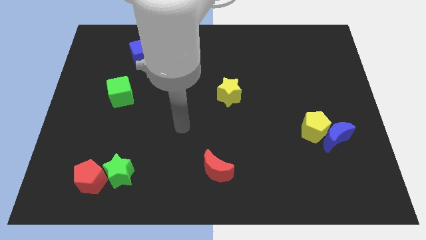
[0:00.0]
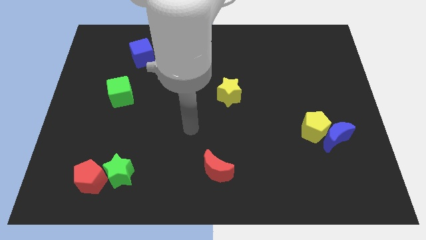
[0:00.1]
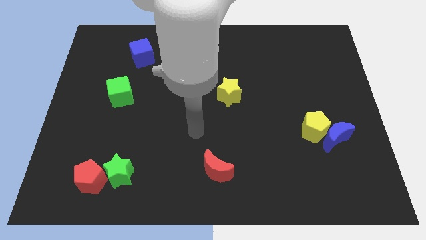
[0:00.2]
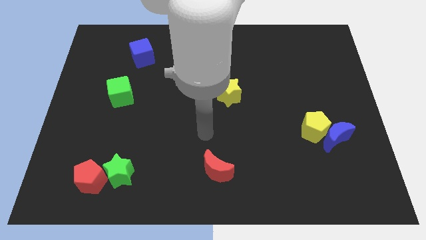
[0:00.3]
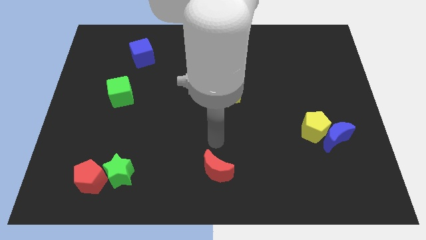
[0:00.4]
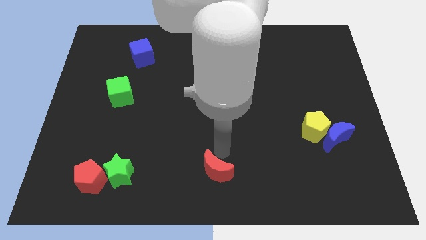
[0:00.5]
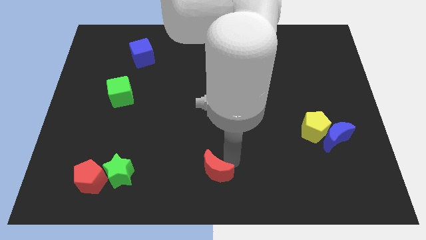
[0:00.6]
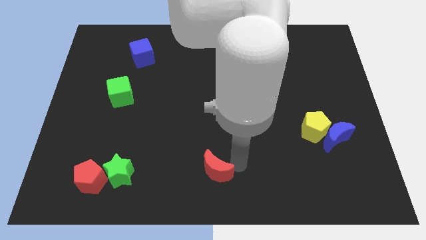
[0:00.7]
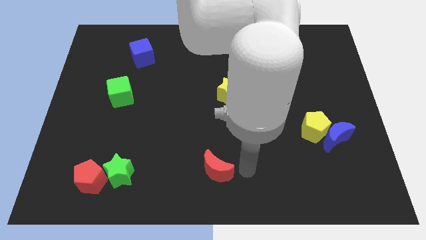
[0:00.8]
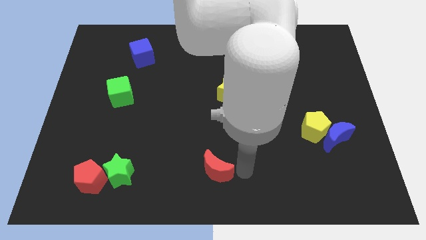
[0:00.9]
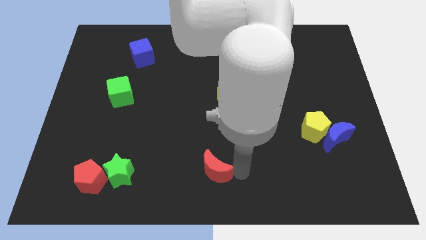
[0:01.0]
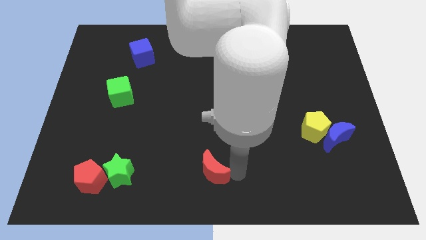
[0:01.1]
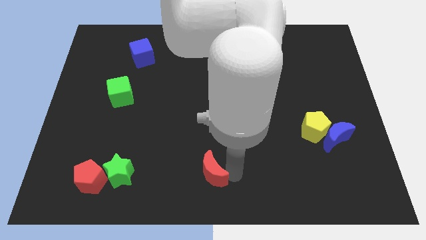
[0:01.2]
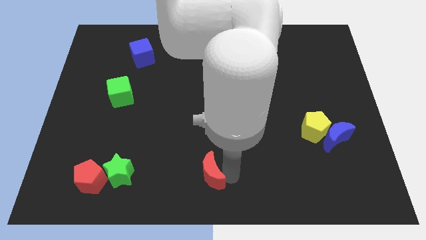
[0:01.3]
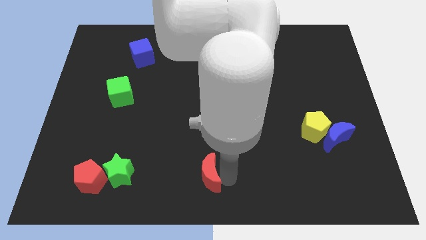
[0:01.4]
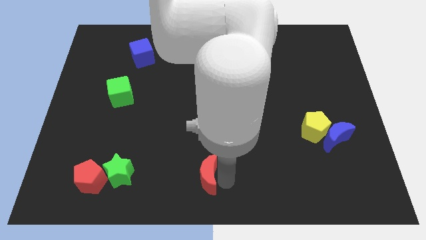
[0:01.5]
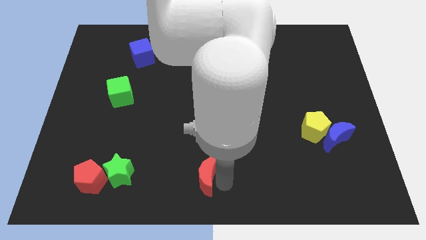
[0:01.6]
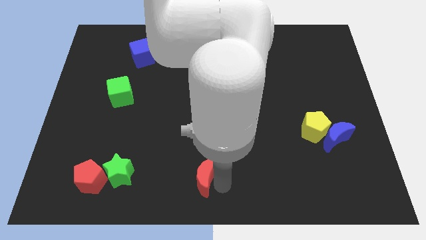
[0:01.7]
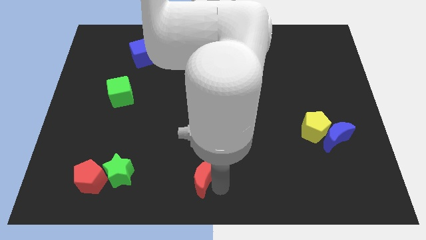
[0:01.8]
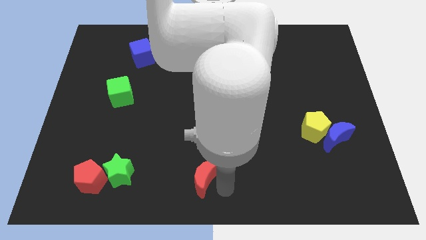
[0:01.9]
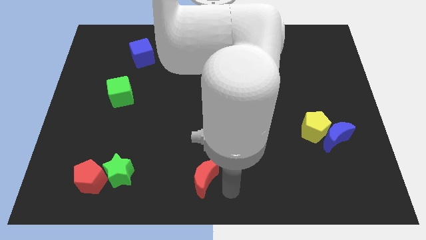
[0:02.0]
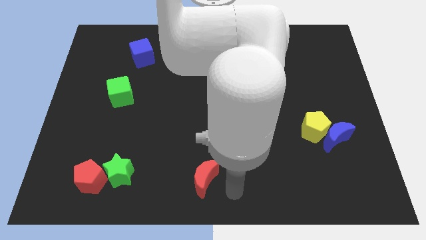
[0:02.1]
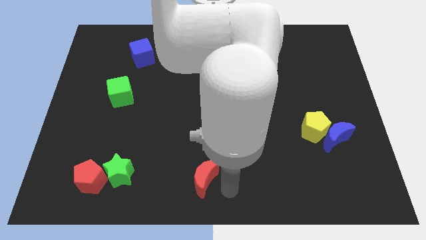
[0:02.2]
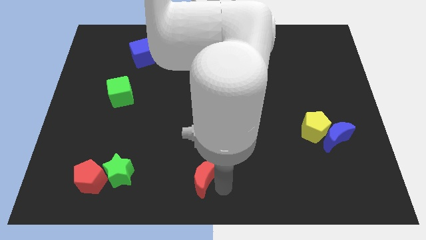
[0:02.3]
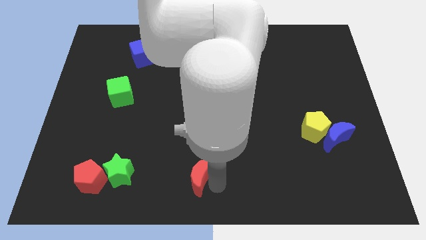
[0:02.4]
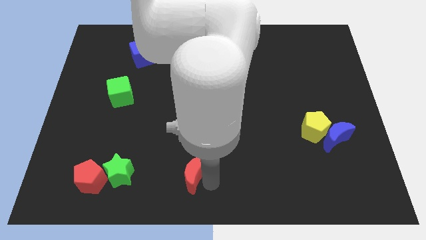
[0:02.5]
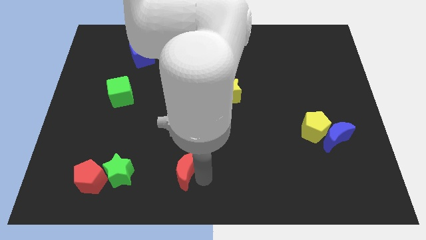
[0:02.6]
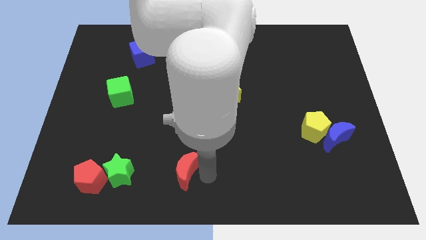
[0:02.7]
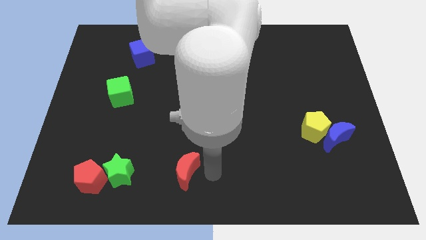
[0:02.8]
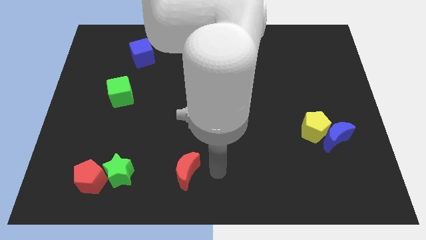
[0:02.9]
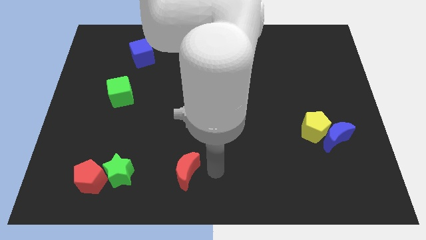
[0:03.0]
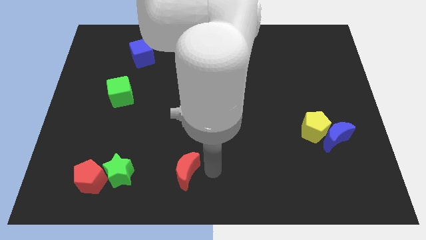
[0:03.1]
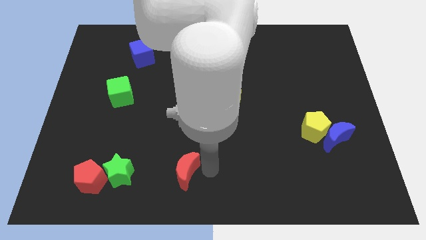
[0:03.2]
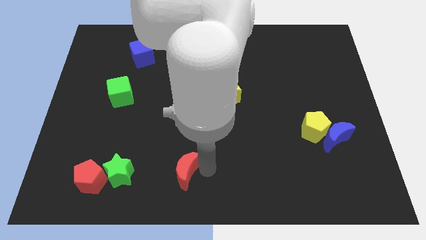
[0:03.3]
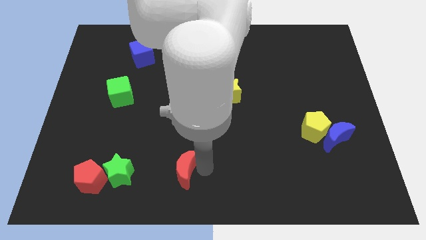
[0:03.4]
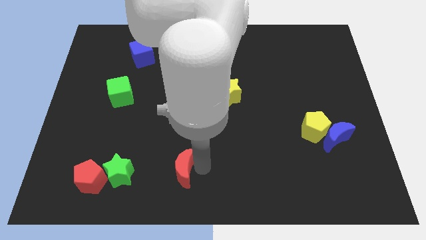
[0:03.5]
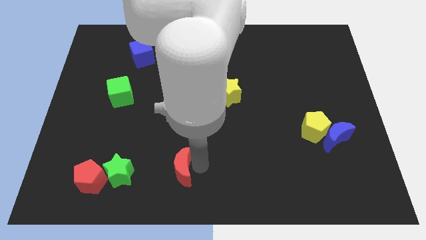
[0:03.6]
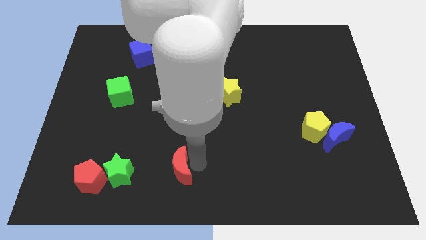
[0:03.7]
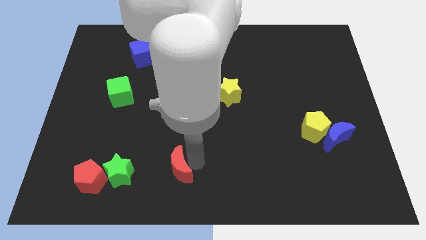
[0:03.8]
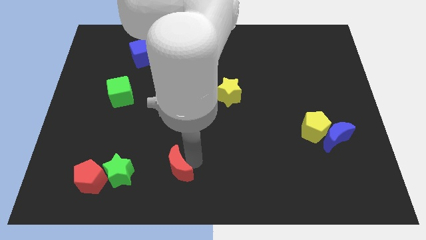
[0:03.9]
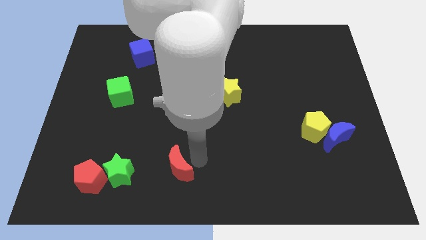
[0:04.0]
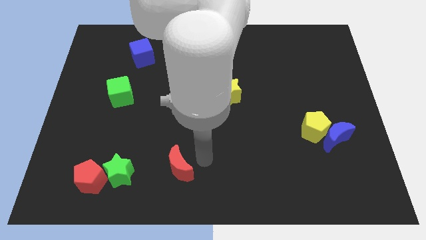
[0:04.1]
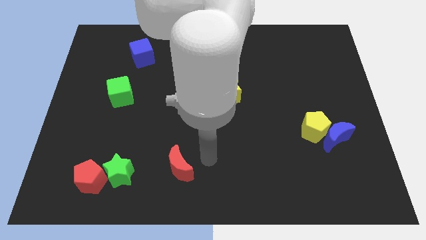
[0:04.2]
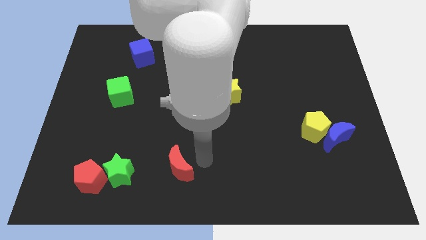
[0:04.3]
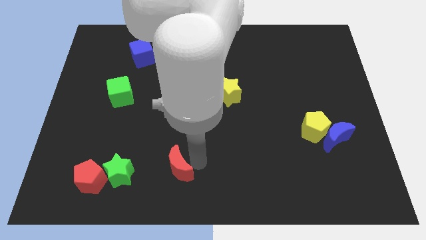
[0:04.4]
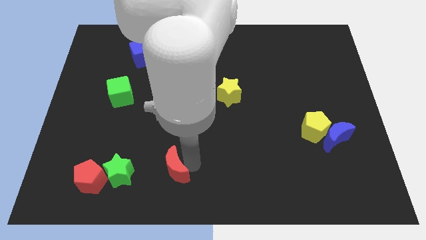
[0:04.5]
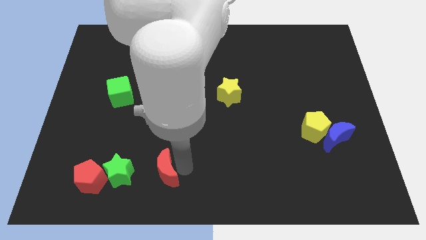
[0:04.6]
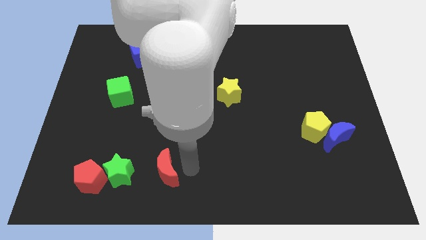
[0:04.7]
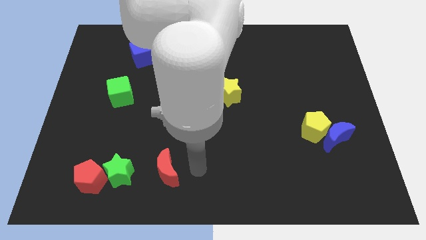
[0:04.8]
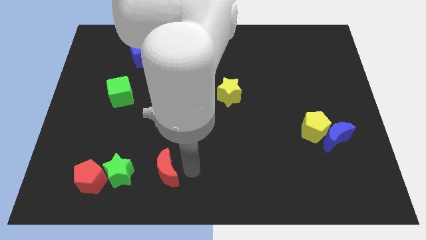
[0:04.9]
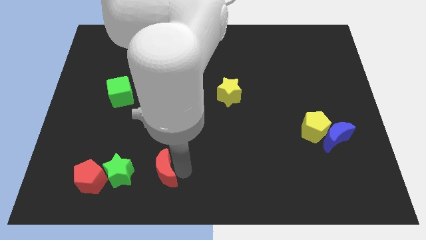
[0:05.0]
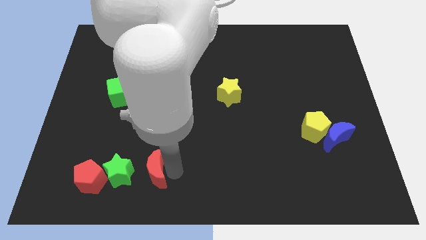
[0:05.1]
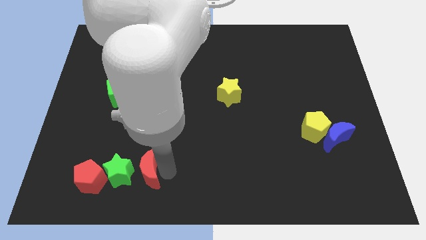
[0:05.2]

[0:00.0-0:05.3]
move the red moon to the green star

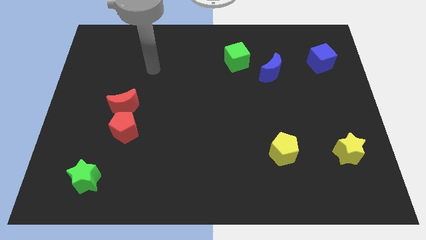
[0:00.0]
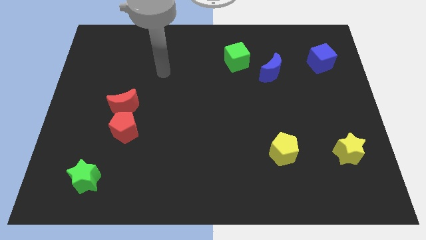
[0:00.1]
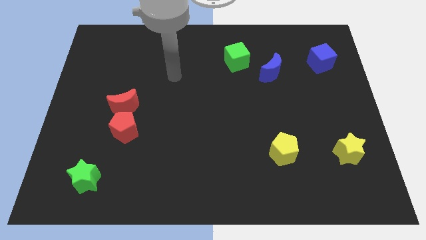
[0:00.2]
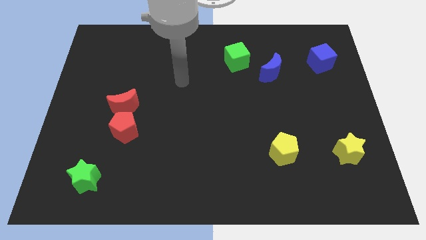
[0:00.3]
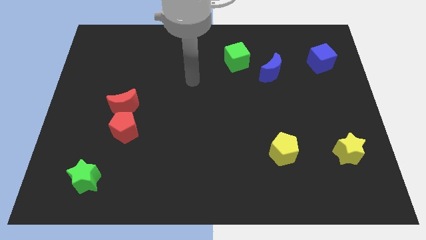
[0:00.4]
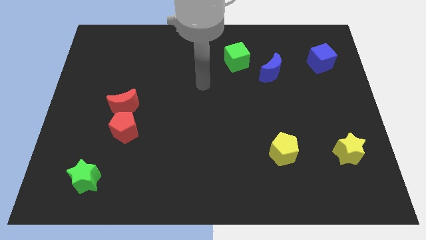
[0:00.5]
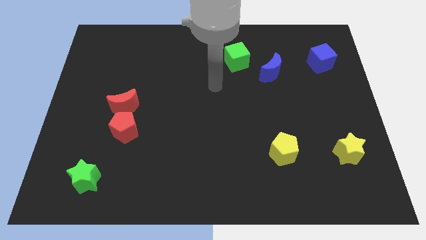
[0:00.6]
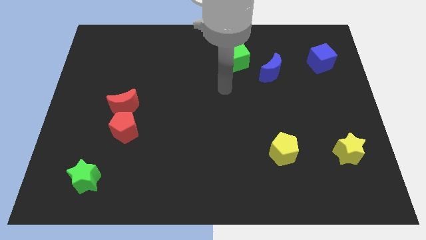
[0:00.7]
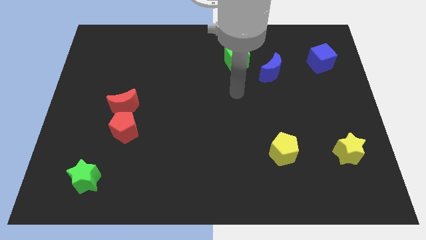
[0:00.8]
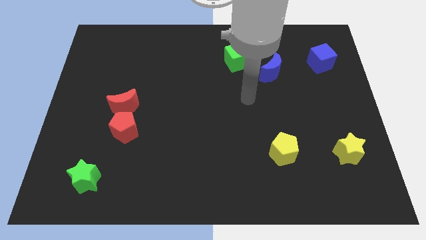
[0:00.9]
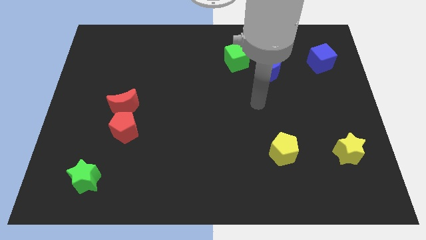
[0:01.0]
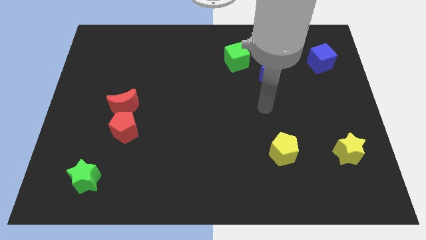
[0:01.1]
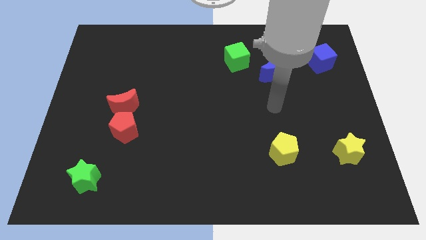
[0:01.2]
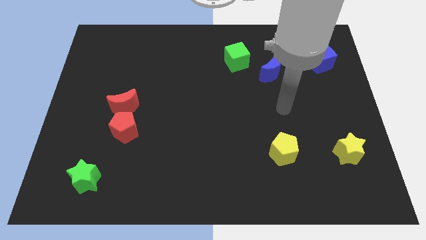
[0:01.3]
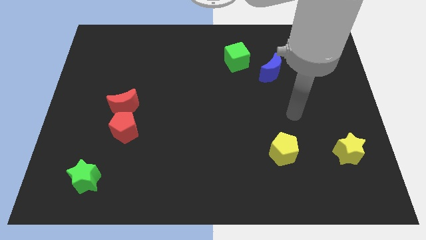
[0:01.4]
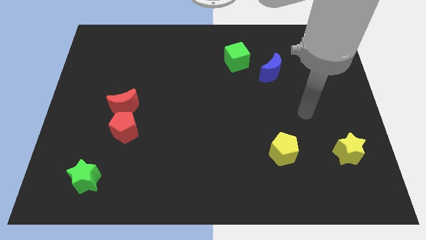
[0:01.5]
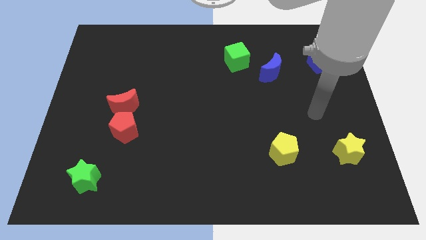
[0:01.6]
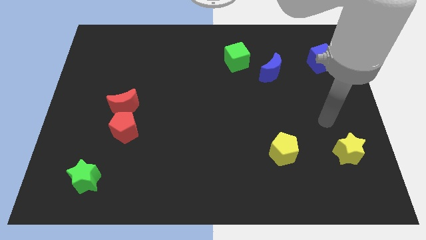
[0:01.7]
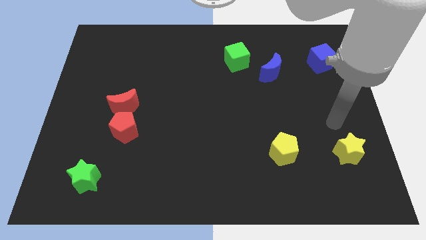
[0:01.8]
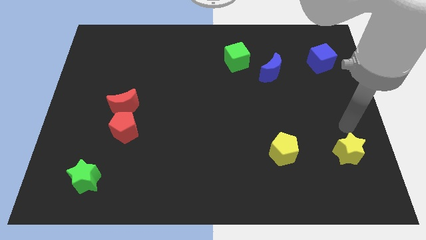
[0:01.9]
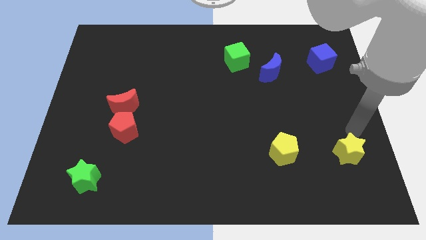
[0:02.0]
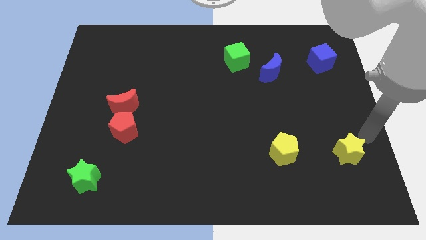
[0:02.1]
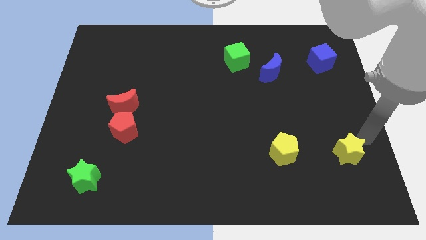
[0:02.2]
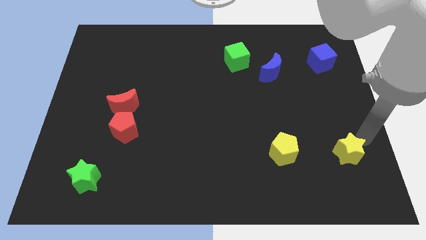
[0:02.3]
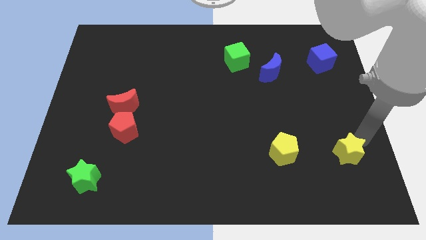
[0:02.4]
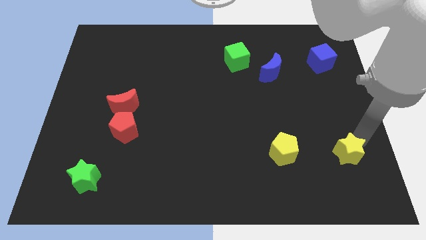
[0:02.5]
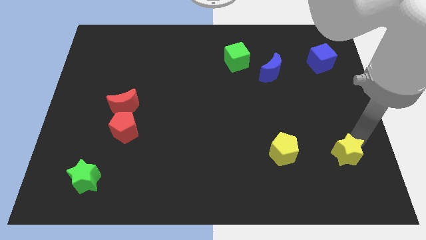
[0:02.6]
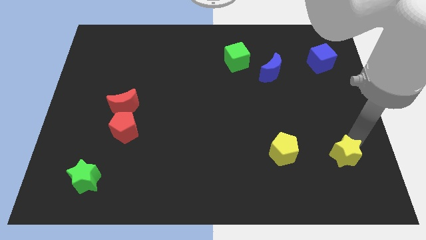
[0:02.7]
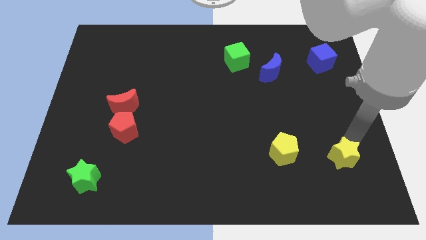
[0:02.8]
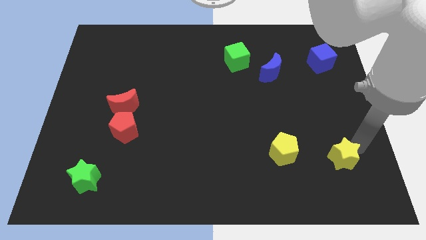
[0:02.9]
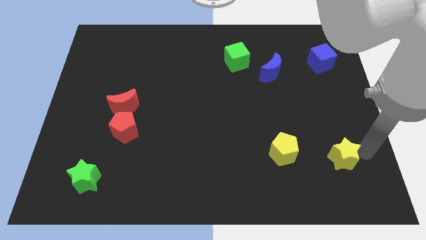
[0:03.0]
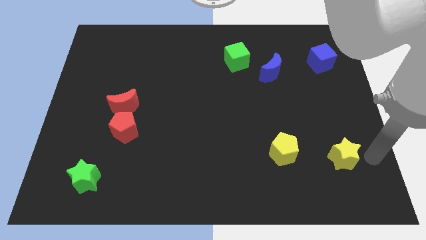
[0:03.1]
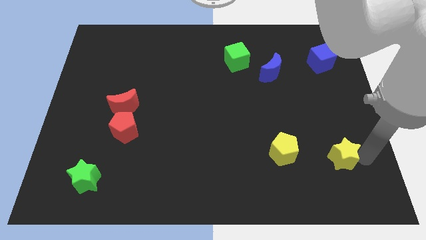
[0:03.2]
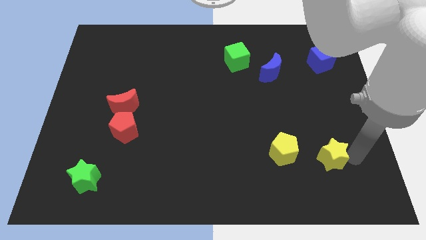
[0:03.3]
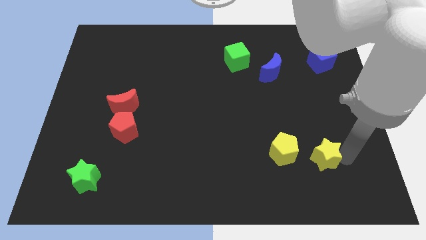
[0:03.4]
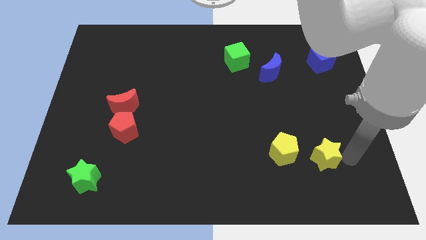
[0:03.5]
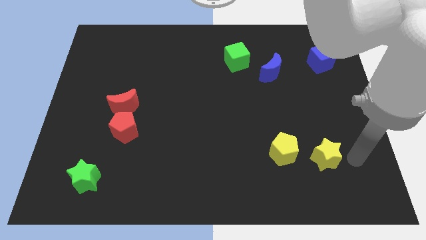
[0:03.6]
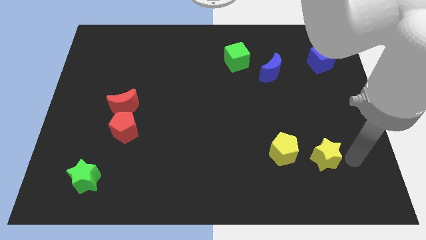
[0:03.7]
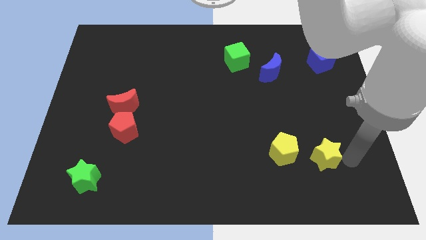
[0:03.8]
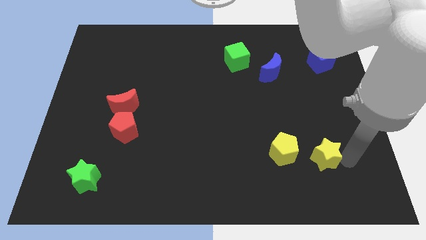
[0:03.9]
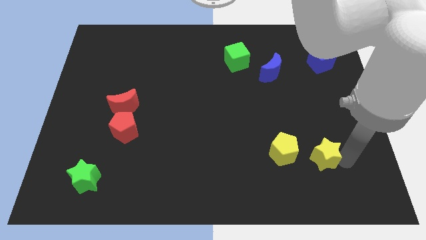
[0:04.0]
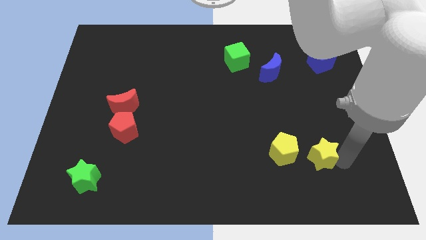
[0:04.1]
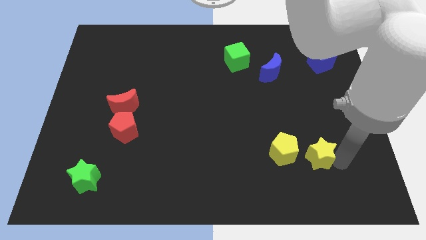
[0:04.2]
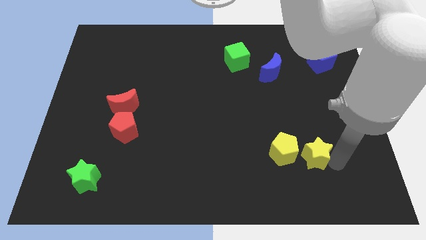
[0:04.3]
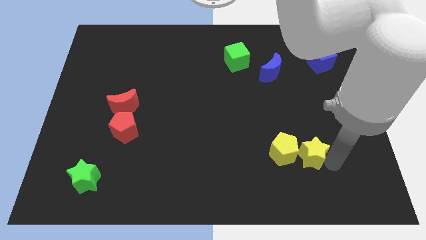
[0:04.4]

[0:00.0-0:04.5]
slide the yellow star next to the yellow pentagon
